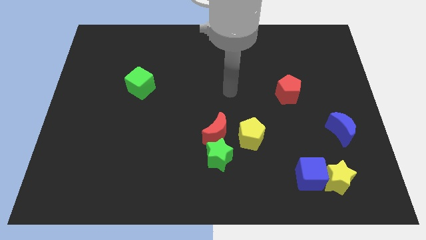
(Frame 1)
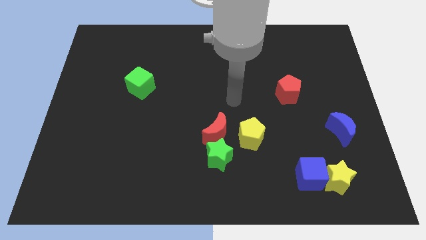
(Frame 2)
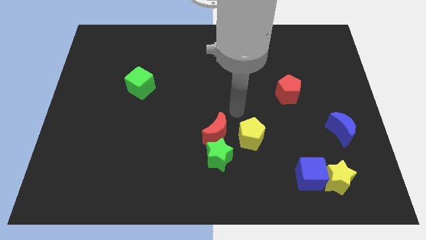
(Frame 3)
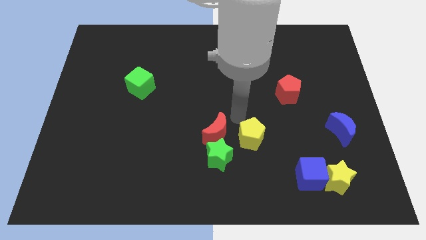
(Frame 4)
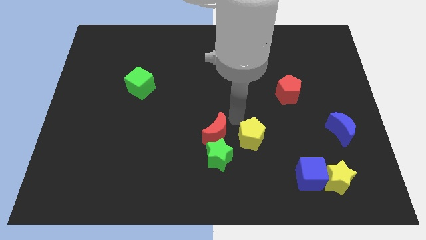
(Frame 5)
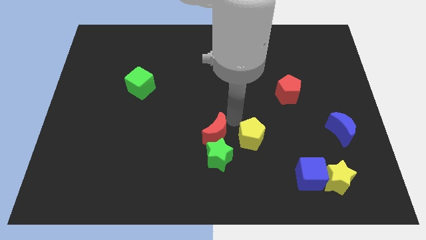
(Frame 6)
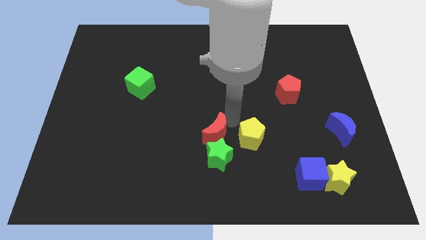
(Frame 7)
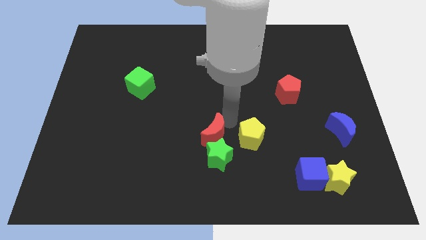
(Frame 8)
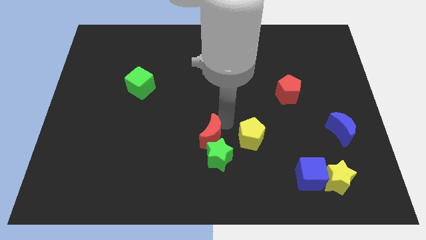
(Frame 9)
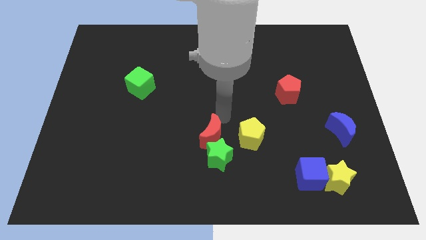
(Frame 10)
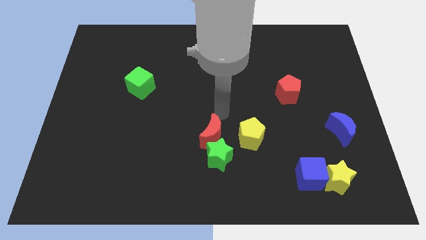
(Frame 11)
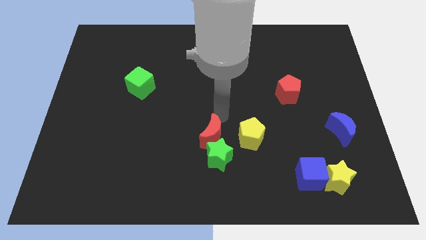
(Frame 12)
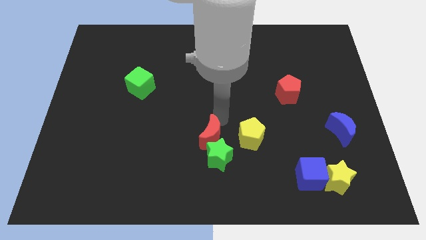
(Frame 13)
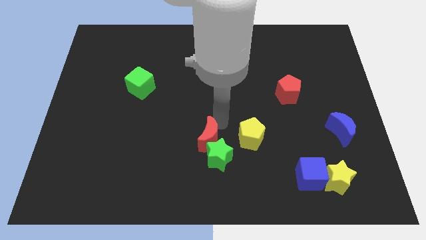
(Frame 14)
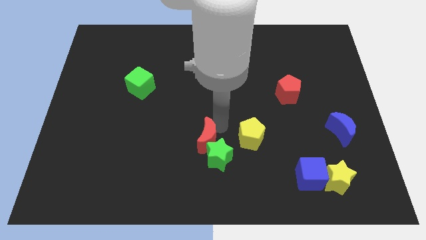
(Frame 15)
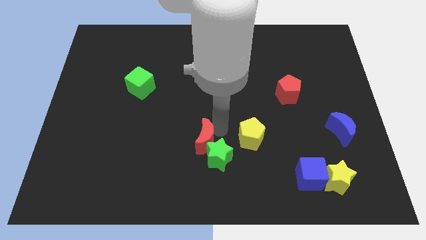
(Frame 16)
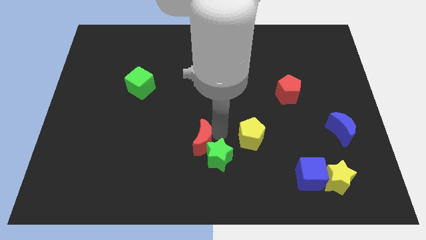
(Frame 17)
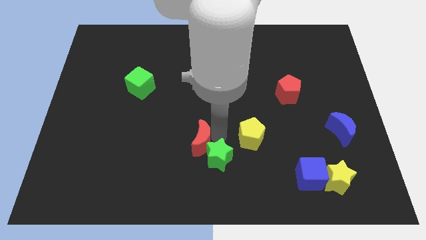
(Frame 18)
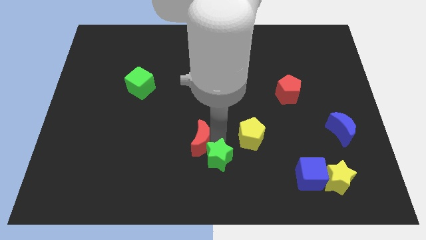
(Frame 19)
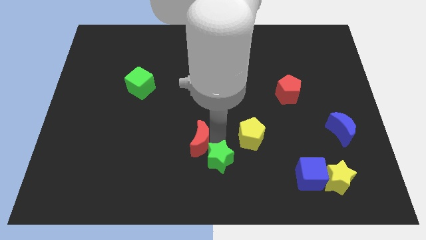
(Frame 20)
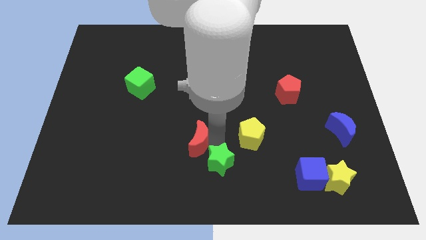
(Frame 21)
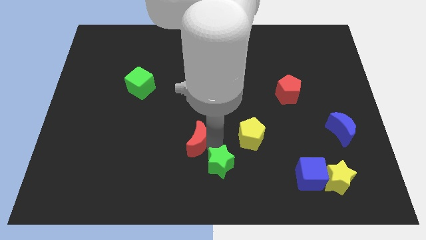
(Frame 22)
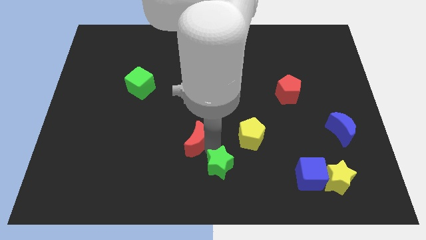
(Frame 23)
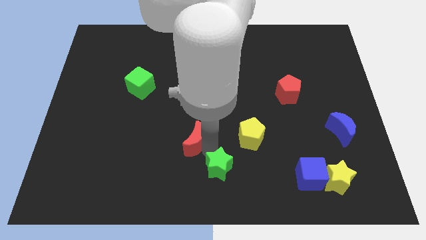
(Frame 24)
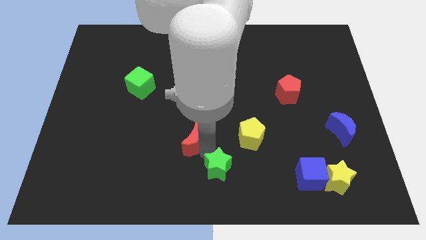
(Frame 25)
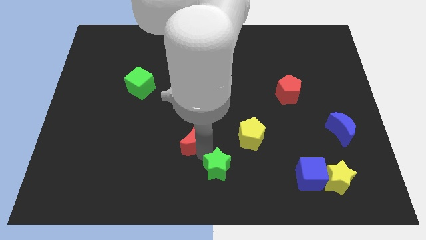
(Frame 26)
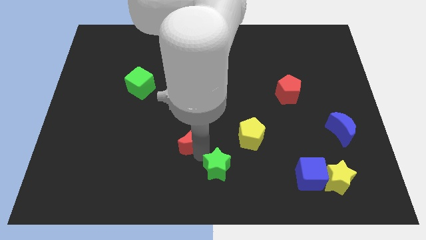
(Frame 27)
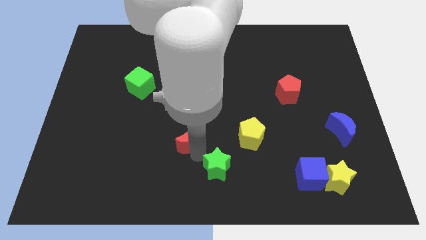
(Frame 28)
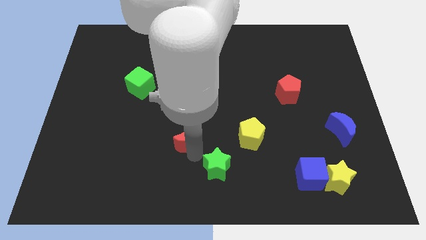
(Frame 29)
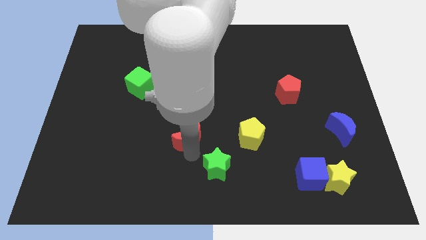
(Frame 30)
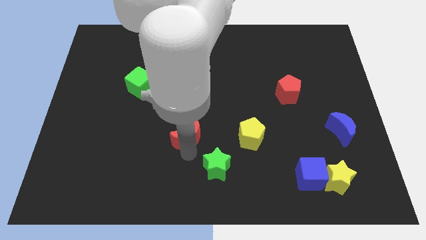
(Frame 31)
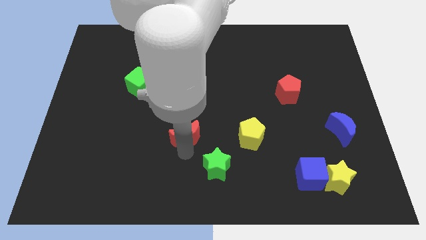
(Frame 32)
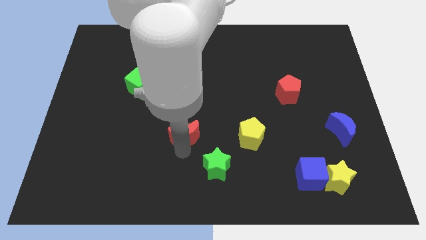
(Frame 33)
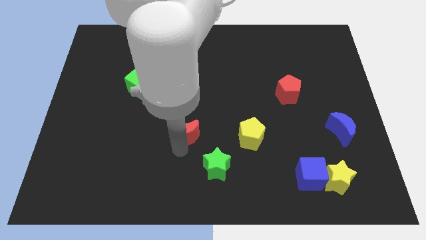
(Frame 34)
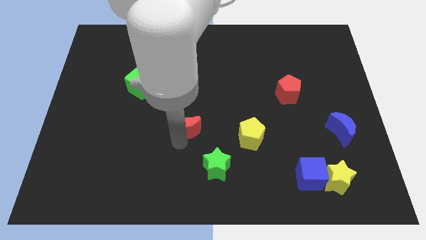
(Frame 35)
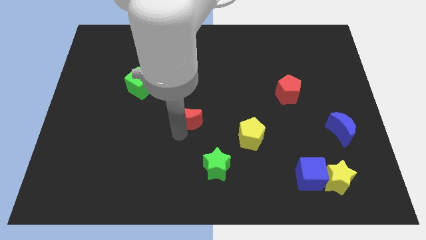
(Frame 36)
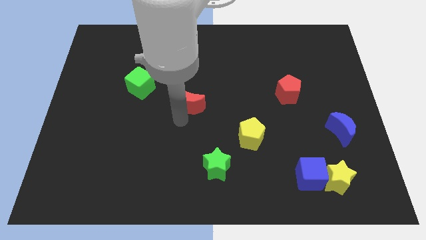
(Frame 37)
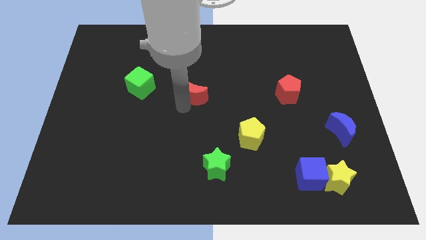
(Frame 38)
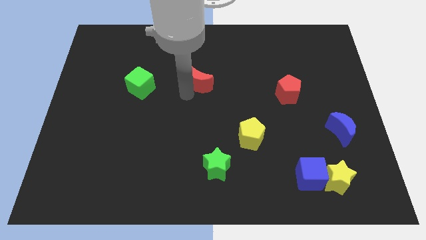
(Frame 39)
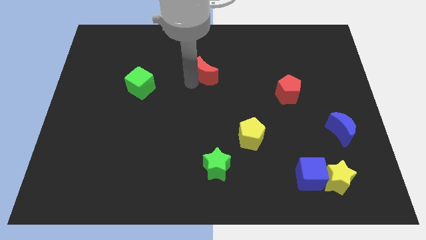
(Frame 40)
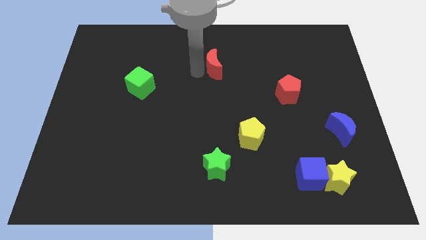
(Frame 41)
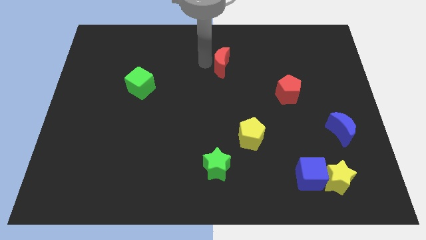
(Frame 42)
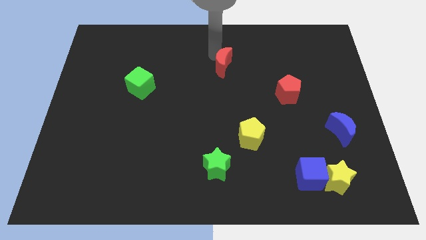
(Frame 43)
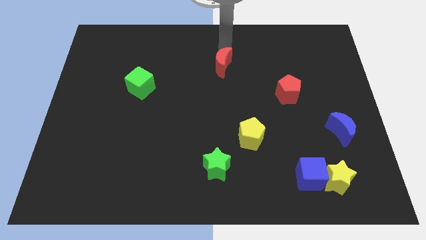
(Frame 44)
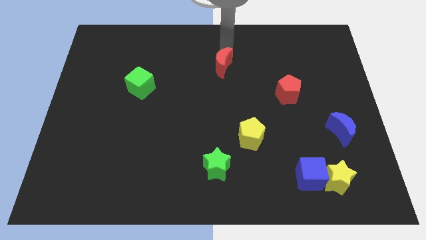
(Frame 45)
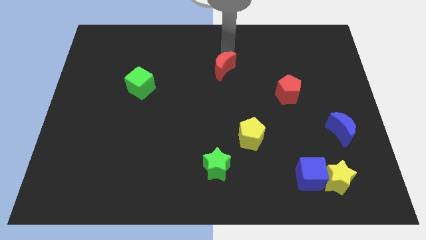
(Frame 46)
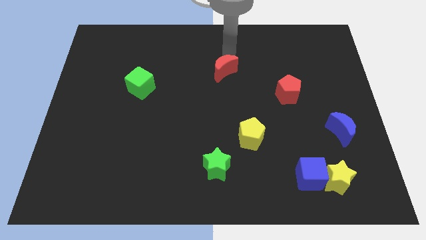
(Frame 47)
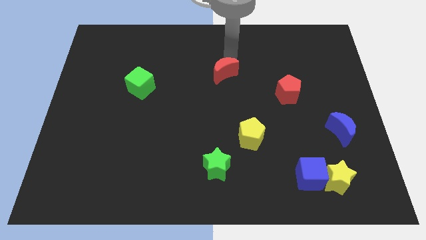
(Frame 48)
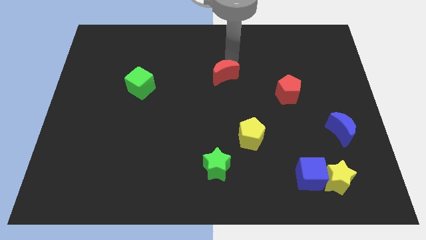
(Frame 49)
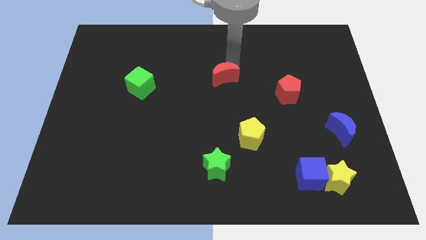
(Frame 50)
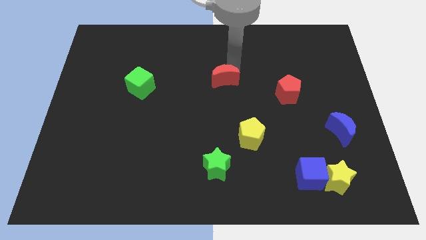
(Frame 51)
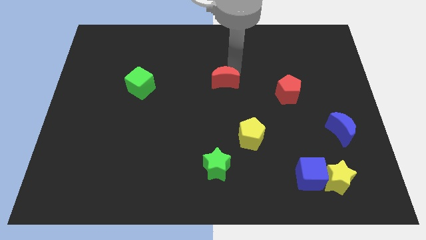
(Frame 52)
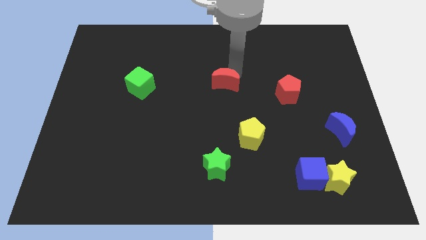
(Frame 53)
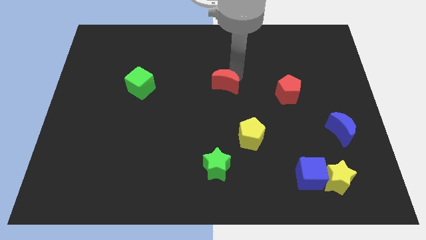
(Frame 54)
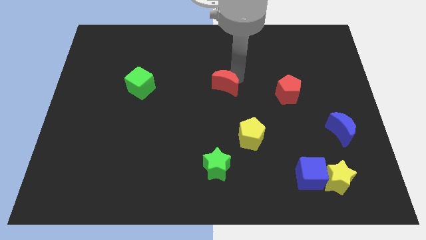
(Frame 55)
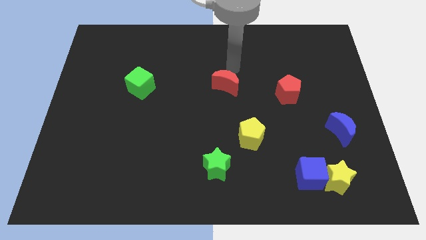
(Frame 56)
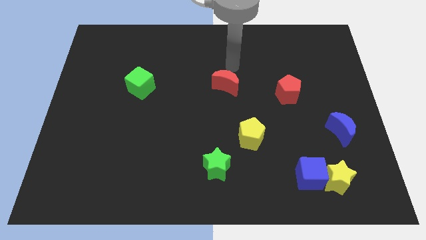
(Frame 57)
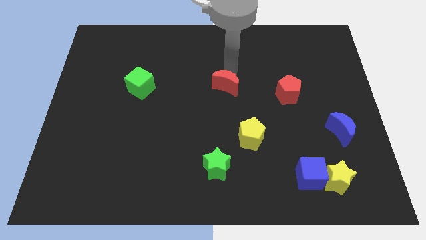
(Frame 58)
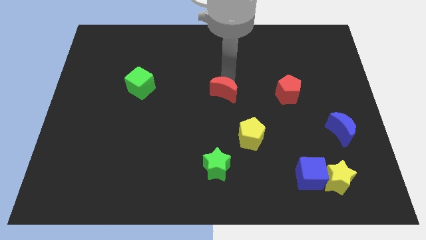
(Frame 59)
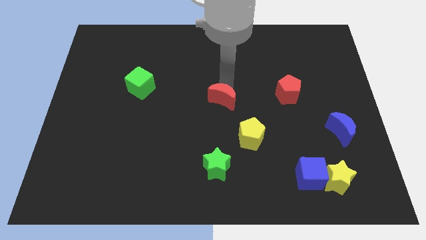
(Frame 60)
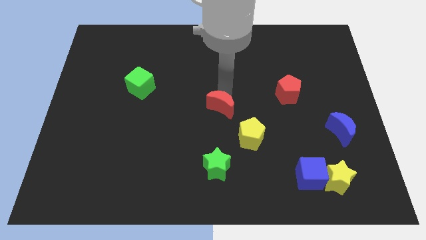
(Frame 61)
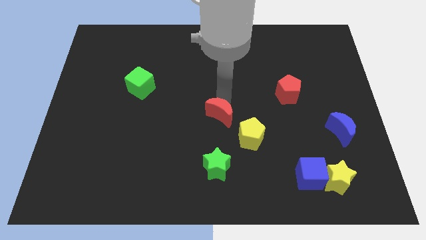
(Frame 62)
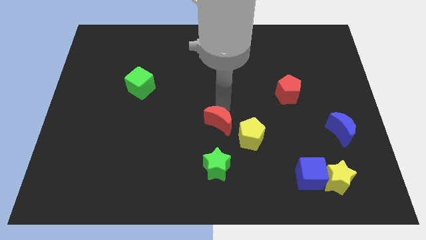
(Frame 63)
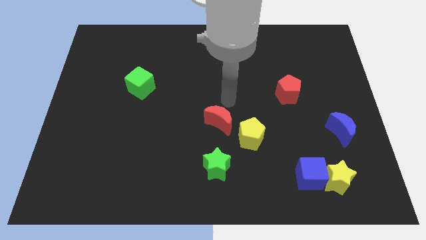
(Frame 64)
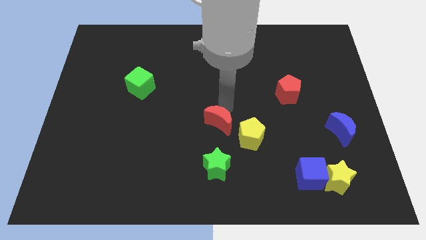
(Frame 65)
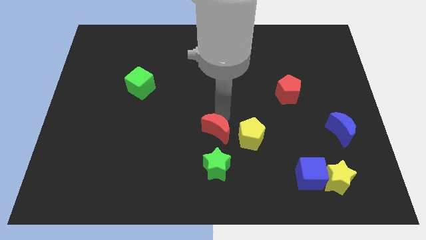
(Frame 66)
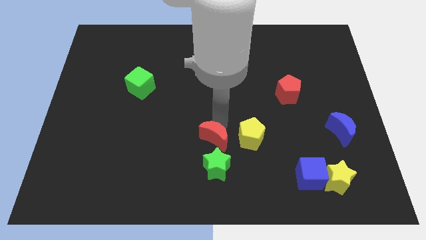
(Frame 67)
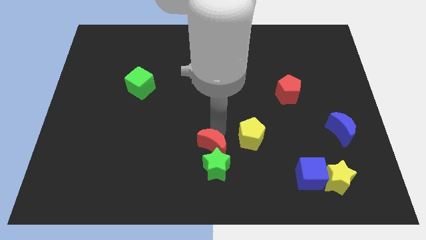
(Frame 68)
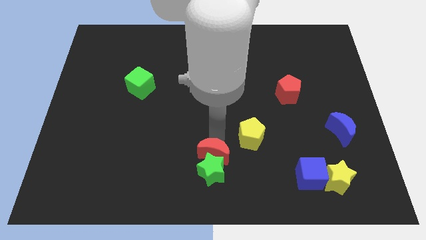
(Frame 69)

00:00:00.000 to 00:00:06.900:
put the red moon to the bottom
